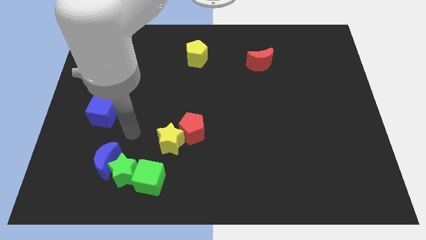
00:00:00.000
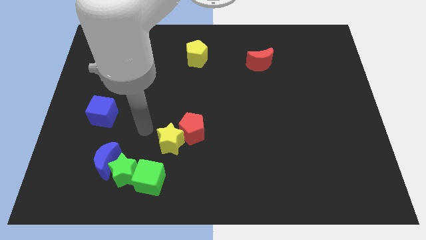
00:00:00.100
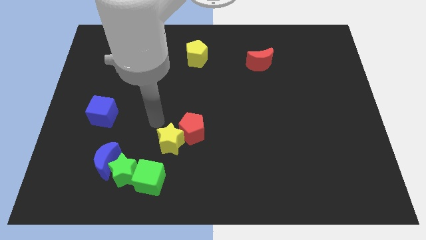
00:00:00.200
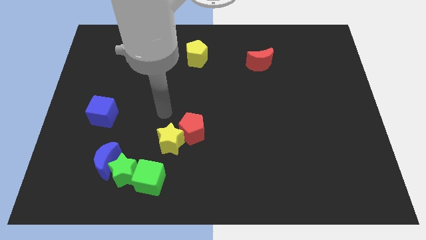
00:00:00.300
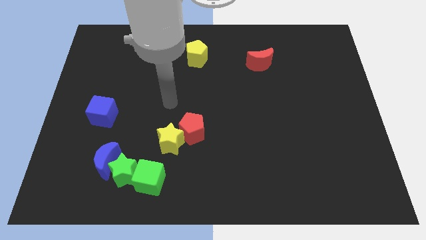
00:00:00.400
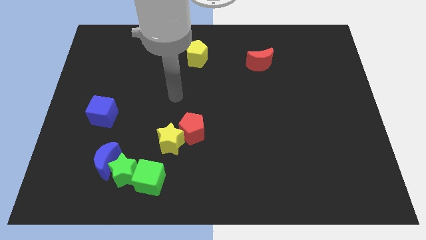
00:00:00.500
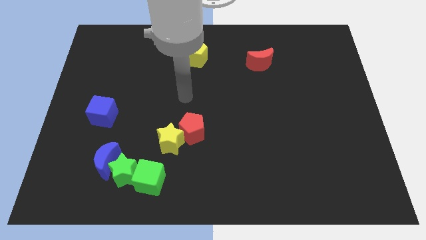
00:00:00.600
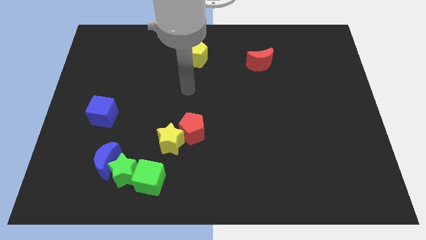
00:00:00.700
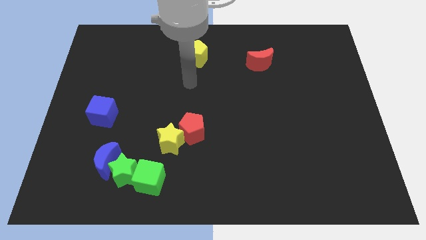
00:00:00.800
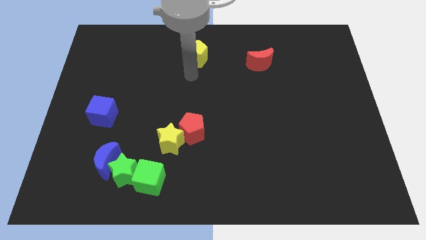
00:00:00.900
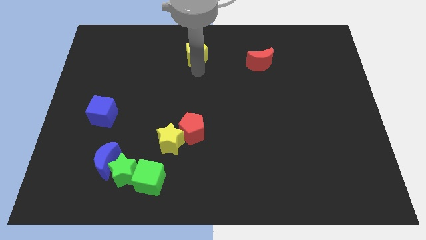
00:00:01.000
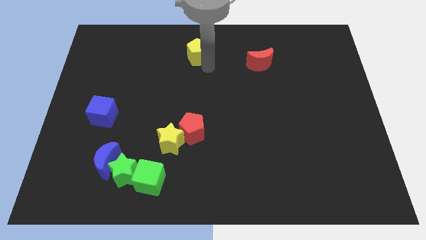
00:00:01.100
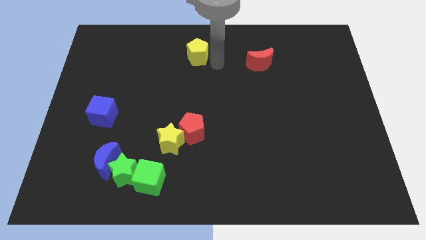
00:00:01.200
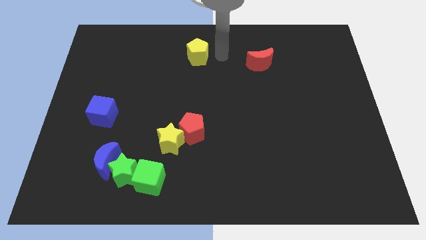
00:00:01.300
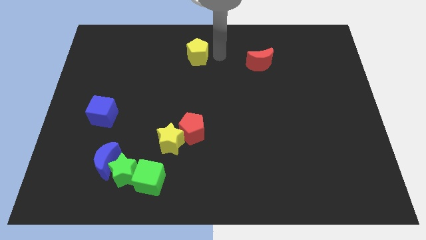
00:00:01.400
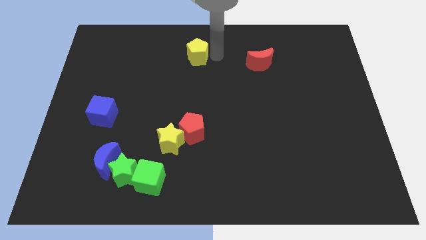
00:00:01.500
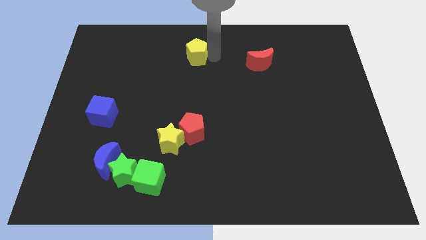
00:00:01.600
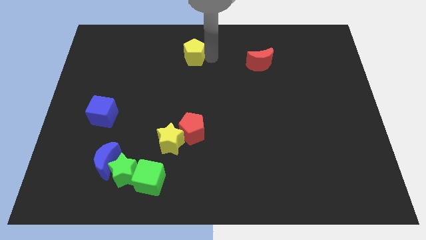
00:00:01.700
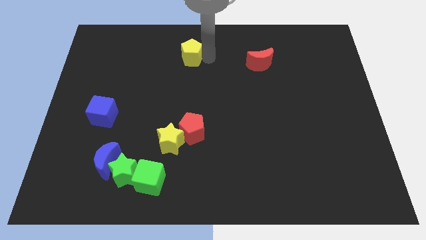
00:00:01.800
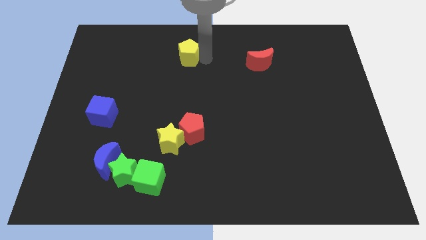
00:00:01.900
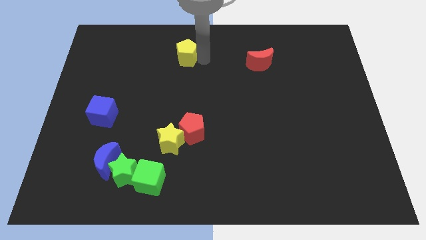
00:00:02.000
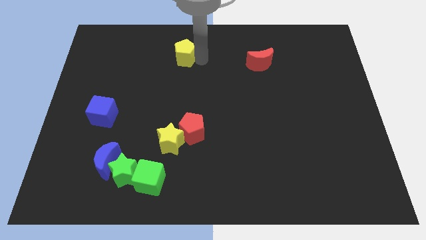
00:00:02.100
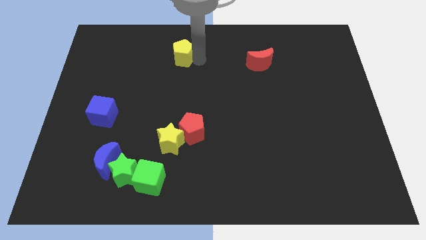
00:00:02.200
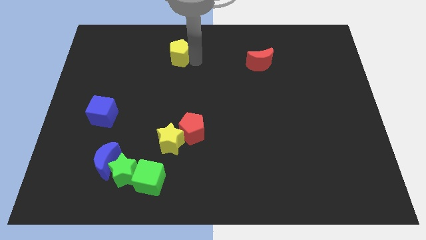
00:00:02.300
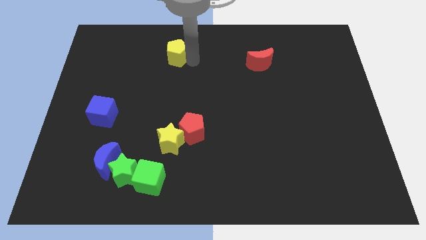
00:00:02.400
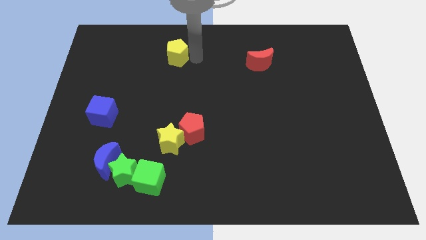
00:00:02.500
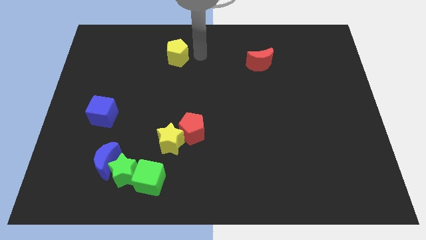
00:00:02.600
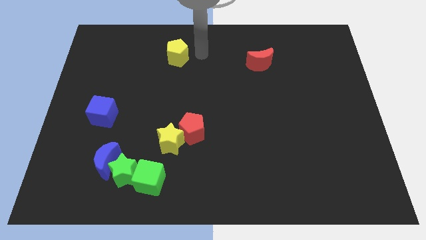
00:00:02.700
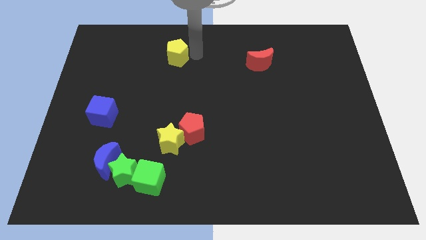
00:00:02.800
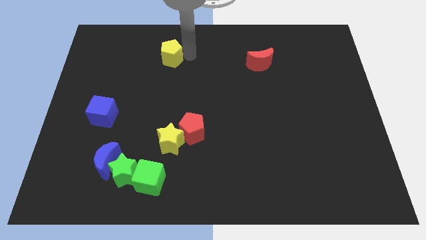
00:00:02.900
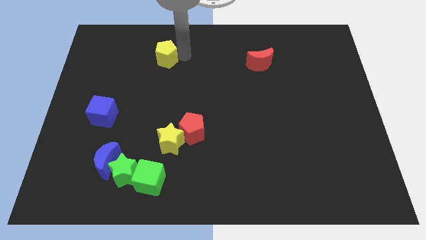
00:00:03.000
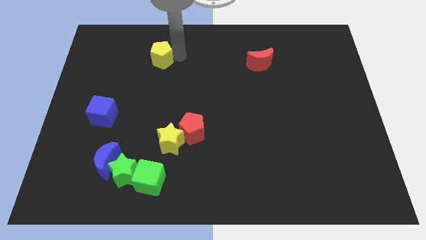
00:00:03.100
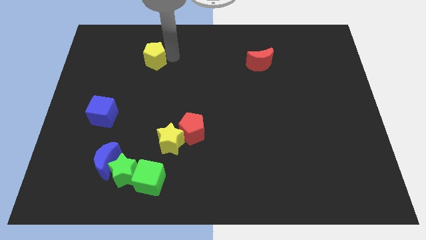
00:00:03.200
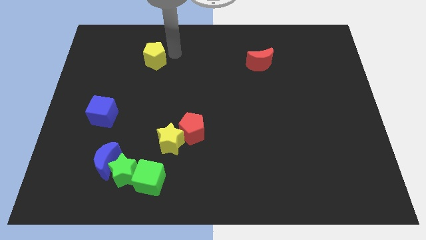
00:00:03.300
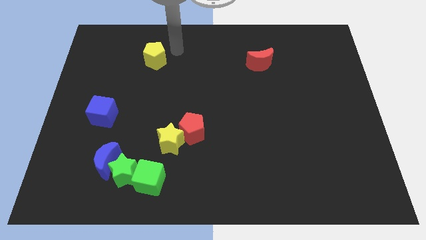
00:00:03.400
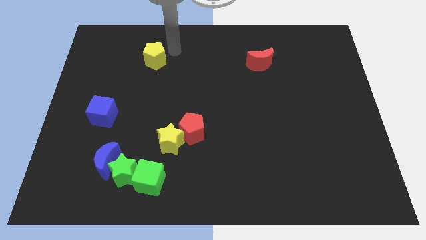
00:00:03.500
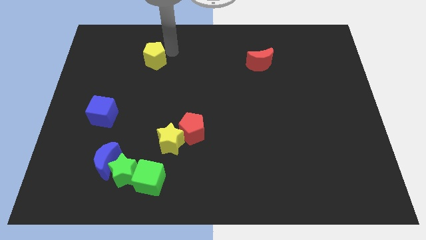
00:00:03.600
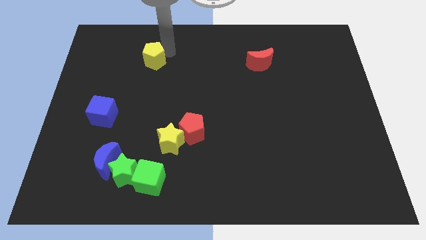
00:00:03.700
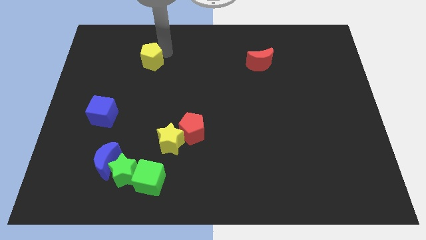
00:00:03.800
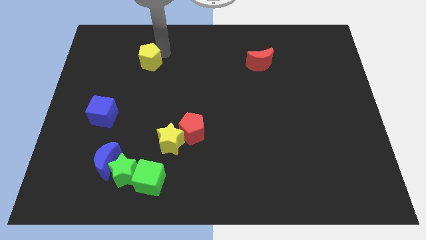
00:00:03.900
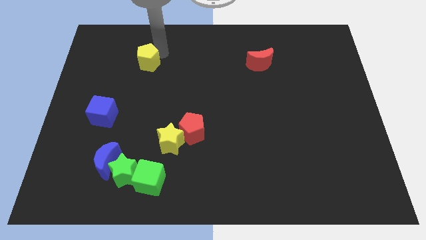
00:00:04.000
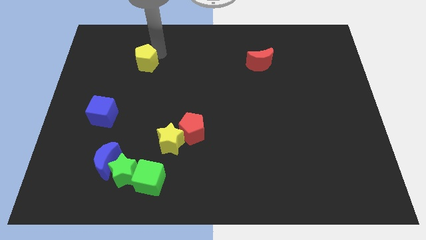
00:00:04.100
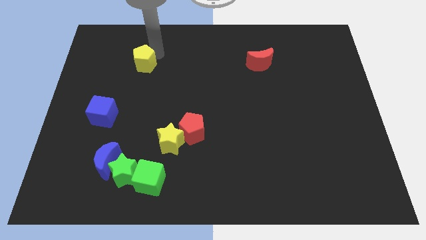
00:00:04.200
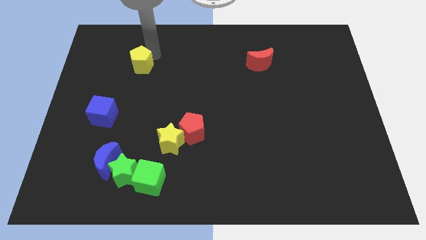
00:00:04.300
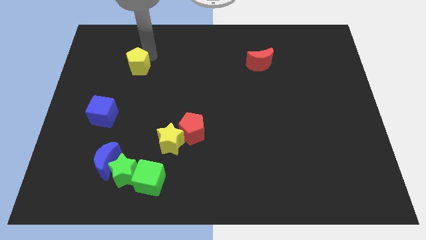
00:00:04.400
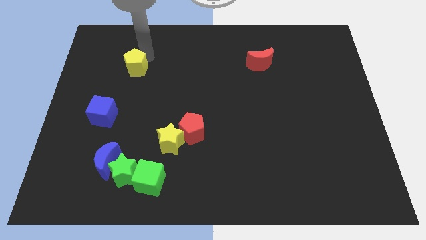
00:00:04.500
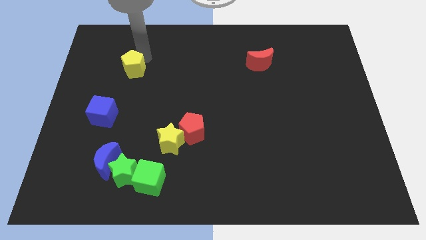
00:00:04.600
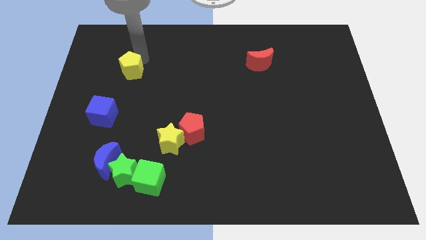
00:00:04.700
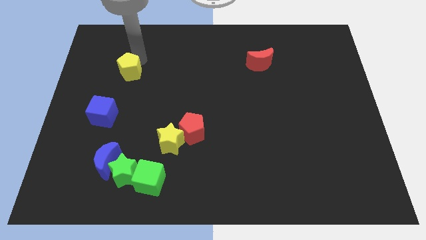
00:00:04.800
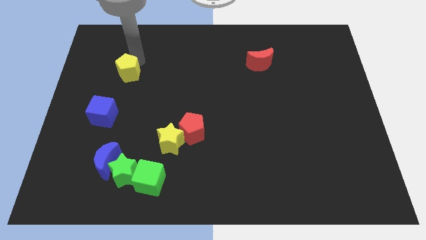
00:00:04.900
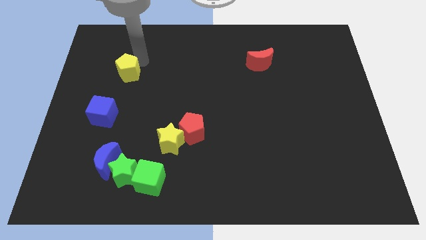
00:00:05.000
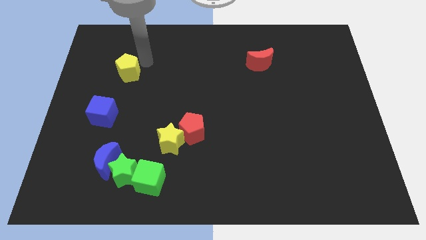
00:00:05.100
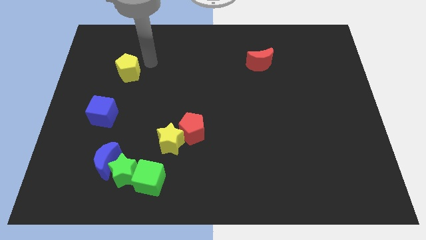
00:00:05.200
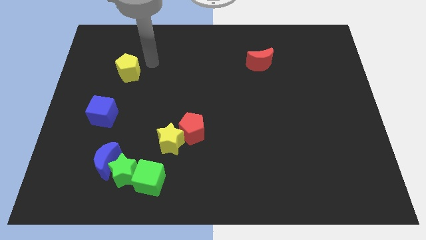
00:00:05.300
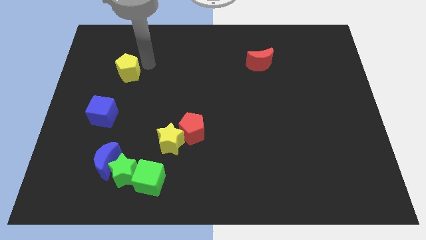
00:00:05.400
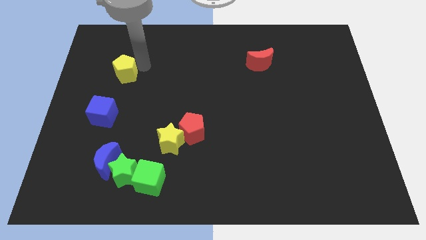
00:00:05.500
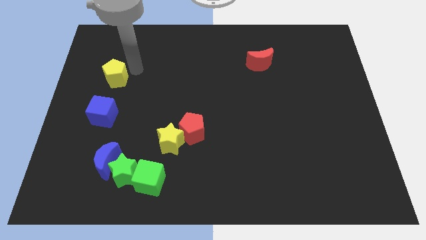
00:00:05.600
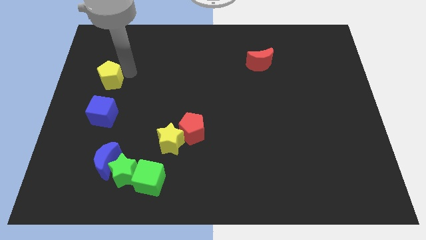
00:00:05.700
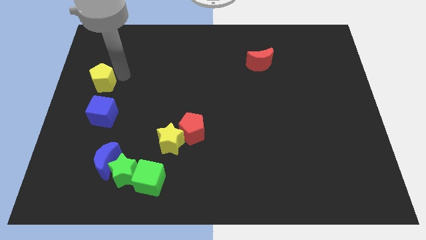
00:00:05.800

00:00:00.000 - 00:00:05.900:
slide the yellow pentagon to the left side of the board

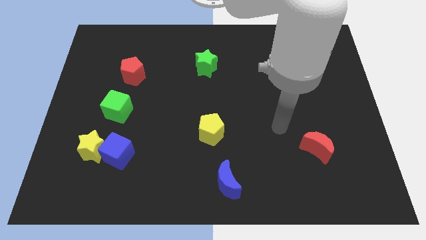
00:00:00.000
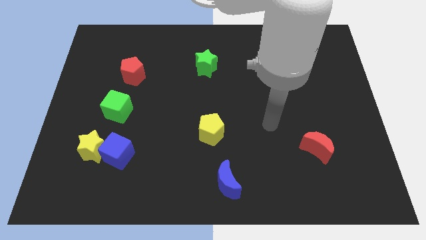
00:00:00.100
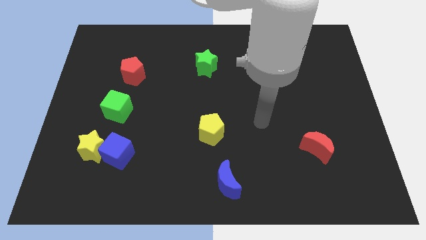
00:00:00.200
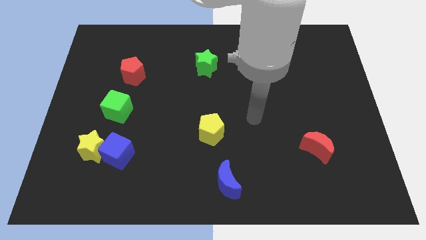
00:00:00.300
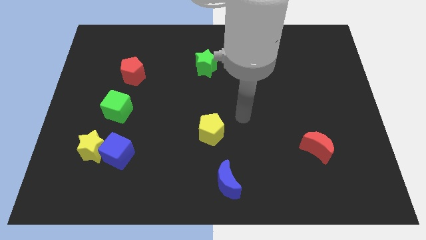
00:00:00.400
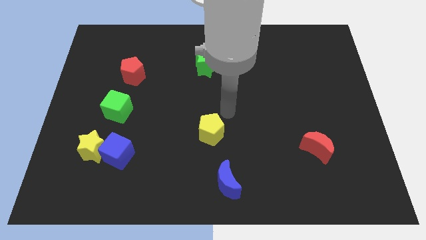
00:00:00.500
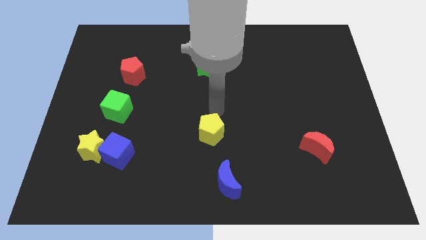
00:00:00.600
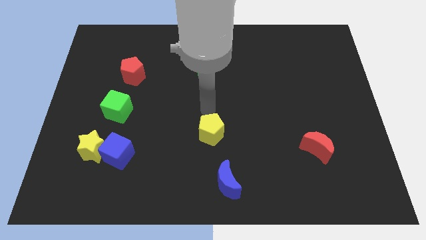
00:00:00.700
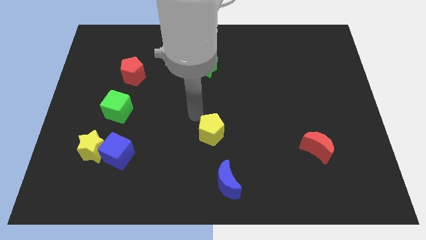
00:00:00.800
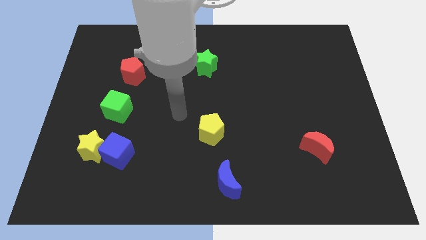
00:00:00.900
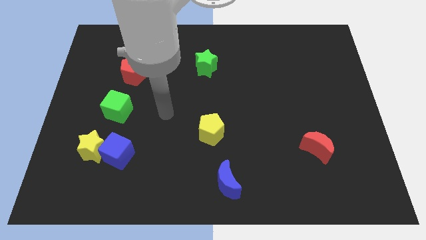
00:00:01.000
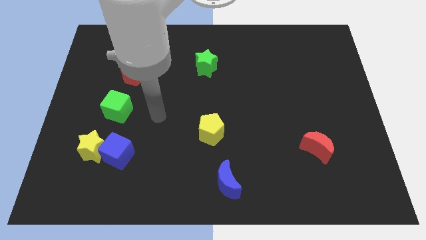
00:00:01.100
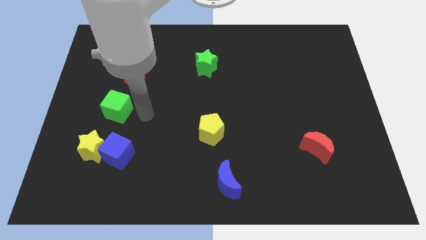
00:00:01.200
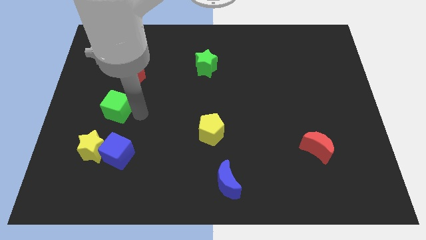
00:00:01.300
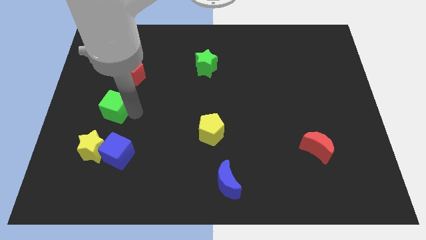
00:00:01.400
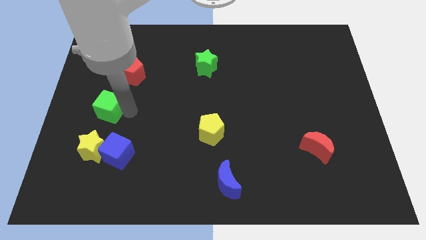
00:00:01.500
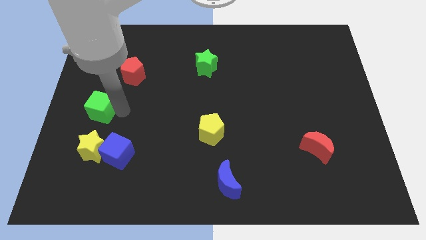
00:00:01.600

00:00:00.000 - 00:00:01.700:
move the green cube to the center left
